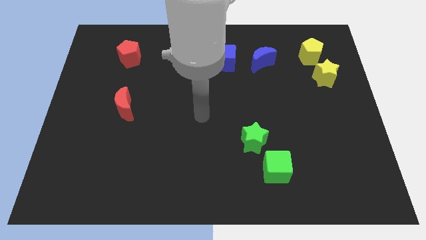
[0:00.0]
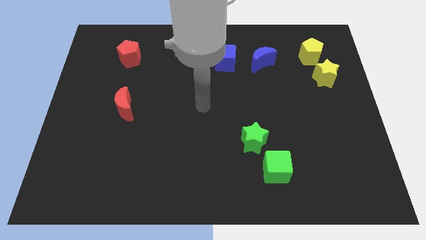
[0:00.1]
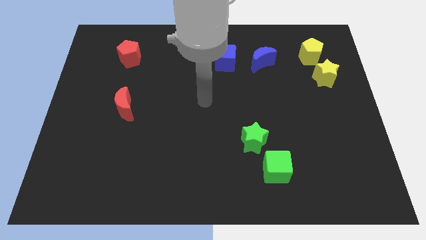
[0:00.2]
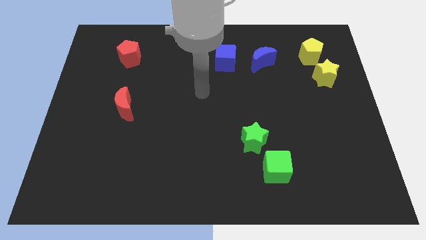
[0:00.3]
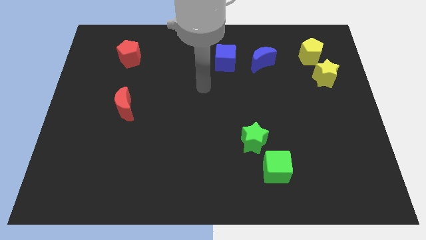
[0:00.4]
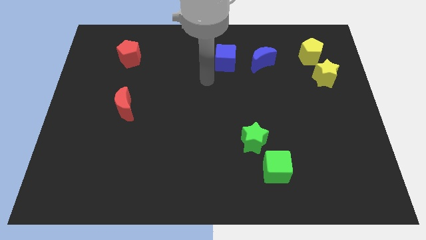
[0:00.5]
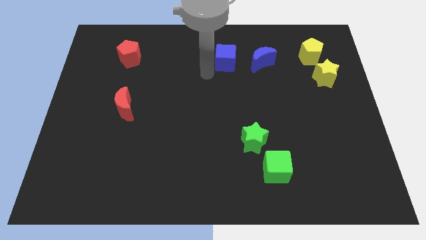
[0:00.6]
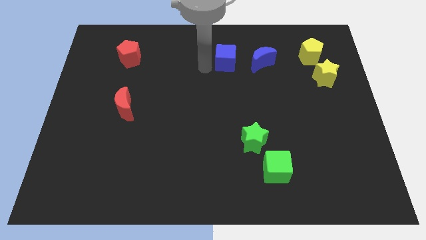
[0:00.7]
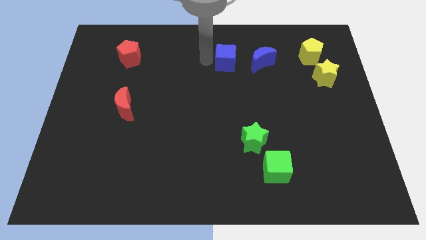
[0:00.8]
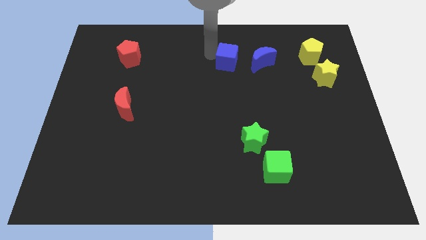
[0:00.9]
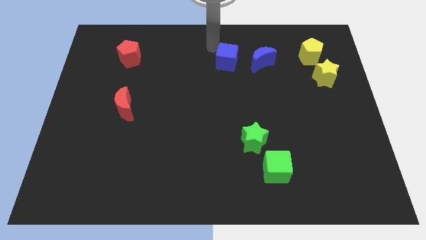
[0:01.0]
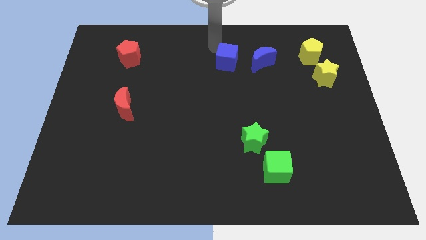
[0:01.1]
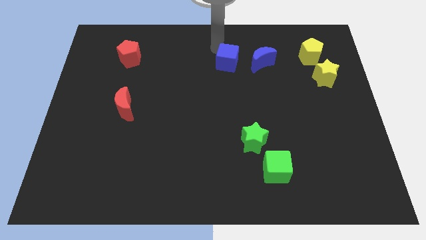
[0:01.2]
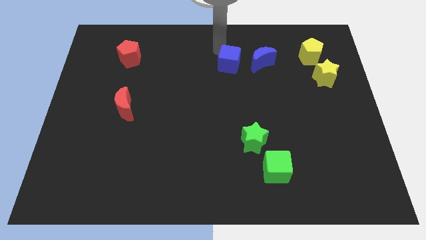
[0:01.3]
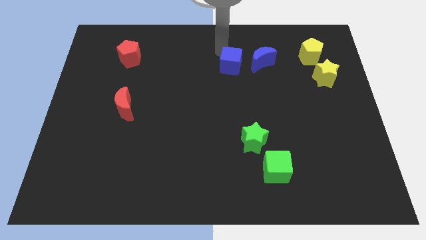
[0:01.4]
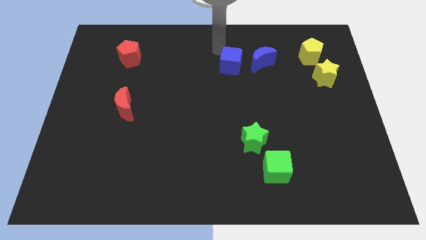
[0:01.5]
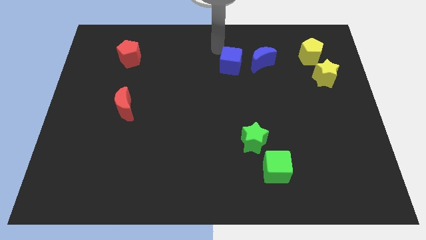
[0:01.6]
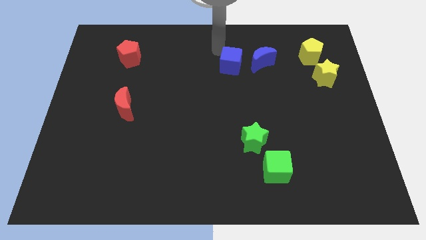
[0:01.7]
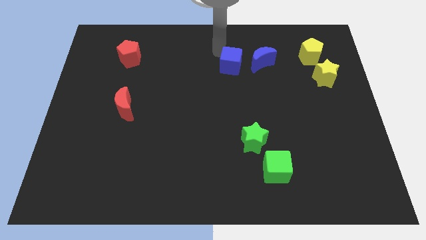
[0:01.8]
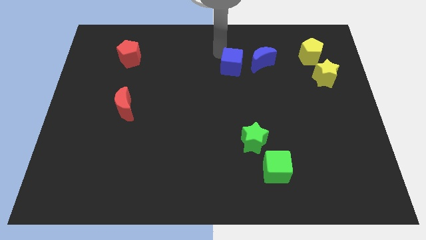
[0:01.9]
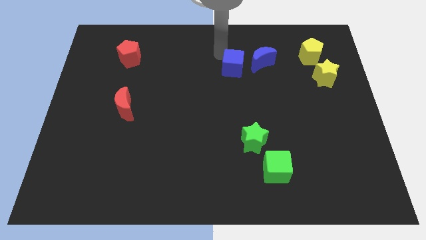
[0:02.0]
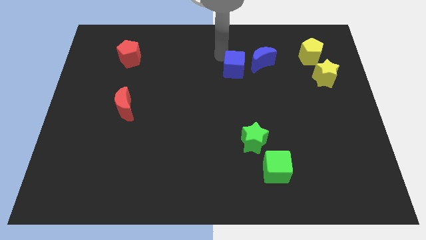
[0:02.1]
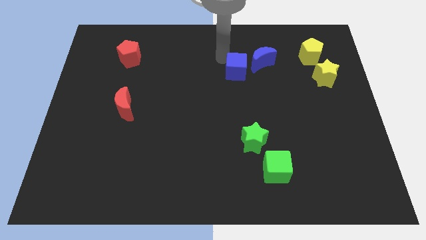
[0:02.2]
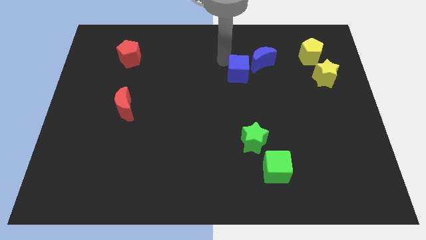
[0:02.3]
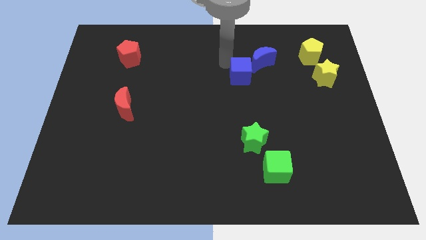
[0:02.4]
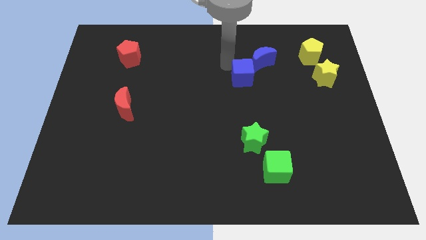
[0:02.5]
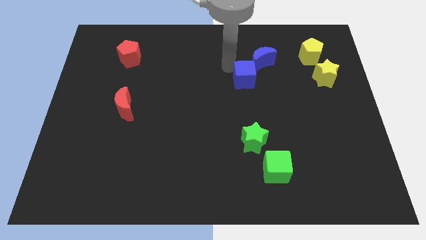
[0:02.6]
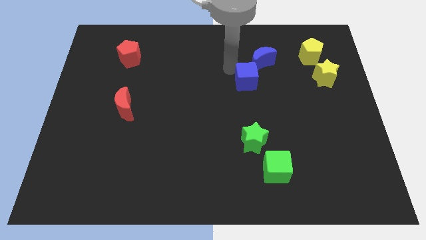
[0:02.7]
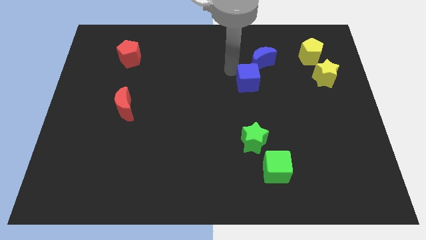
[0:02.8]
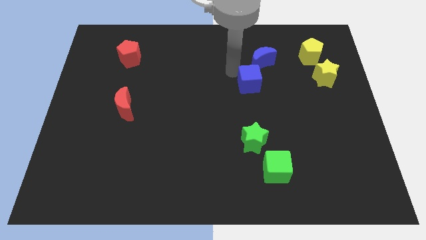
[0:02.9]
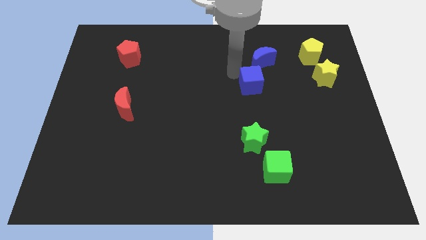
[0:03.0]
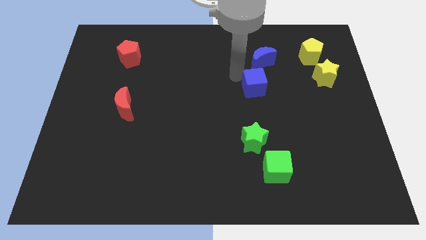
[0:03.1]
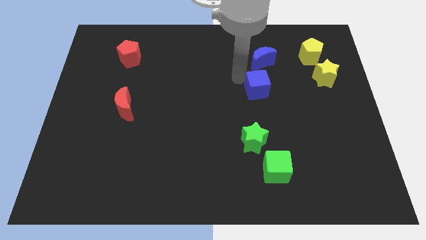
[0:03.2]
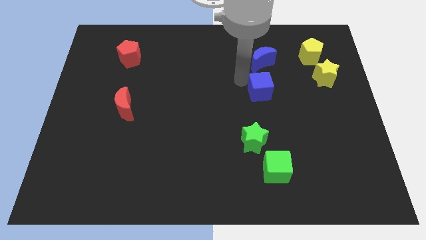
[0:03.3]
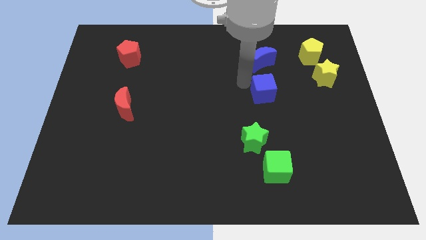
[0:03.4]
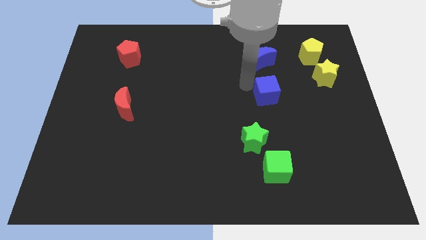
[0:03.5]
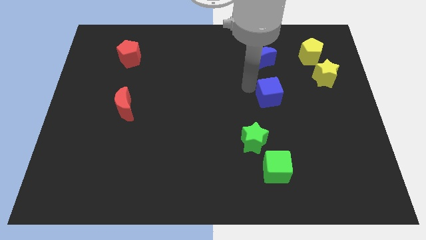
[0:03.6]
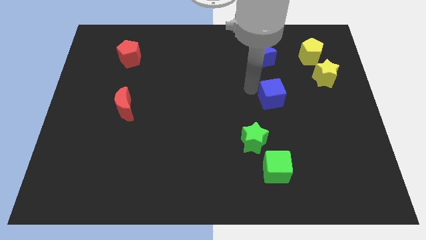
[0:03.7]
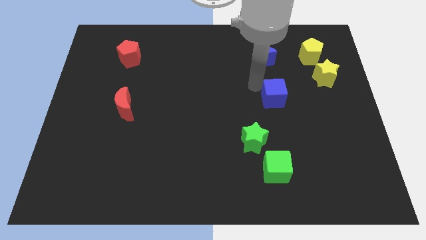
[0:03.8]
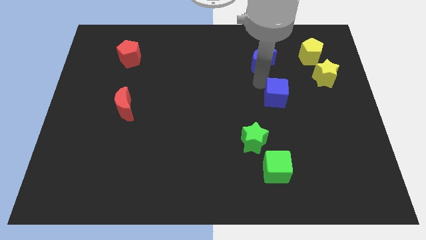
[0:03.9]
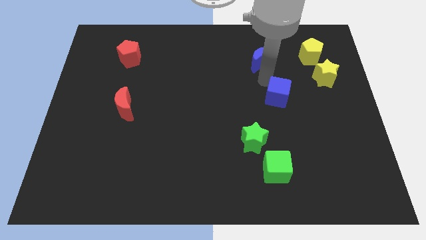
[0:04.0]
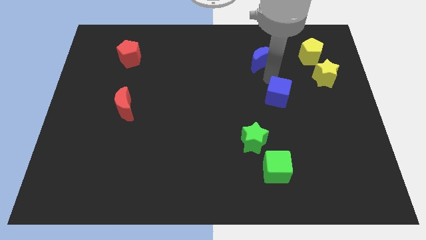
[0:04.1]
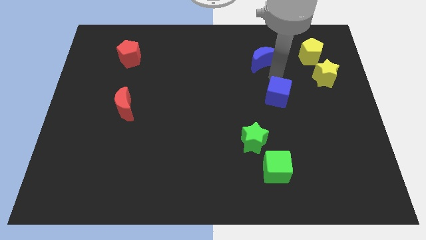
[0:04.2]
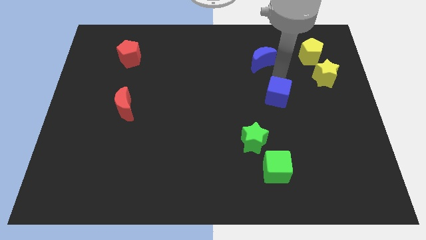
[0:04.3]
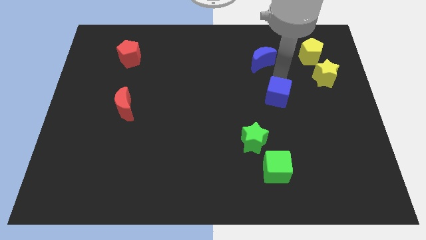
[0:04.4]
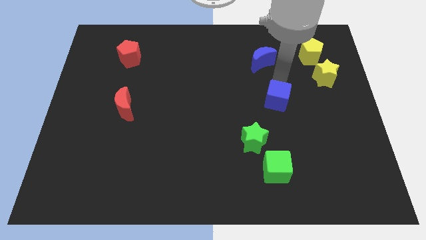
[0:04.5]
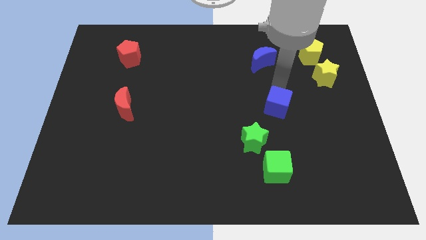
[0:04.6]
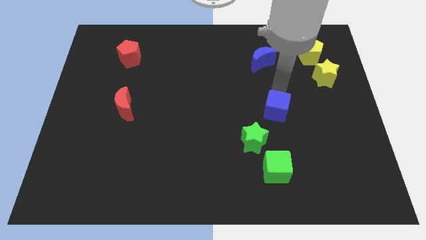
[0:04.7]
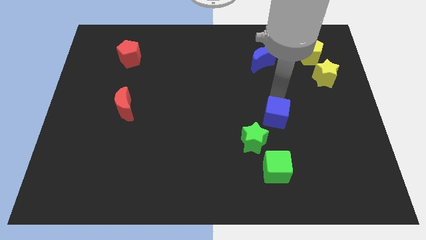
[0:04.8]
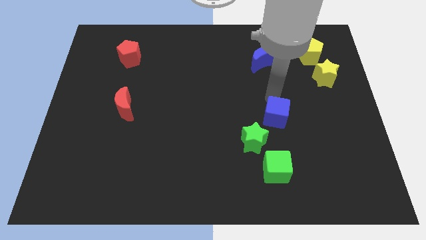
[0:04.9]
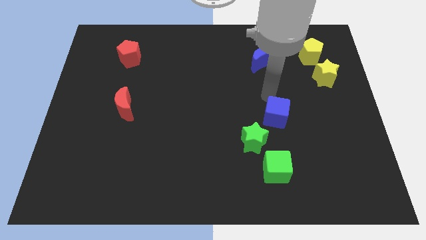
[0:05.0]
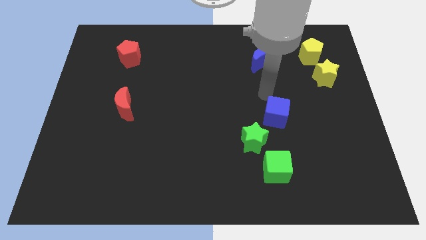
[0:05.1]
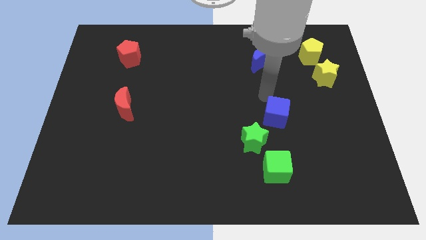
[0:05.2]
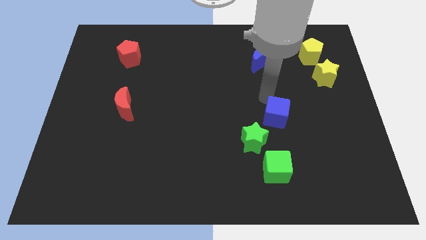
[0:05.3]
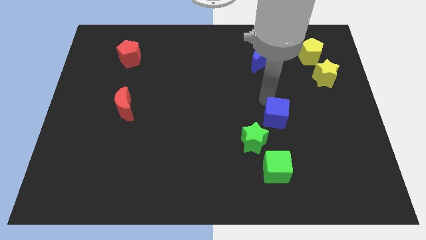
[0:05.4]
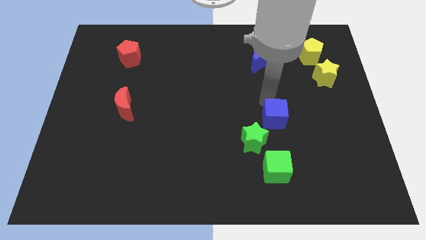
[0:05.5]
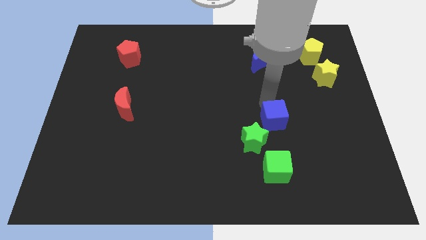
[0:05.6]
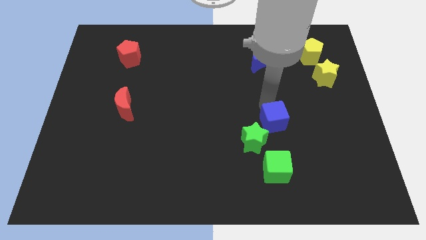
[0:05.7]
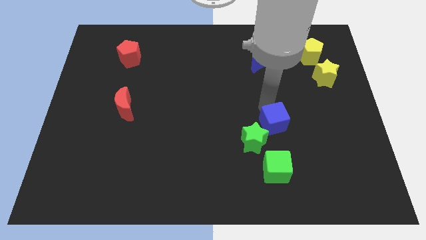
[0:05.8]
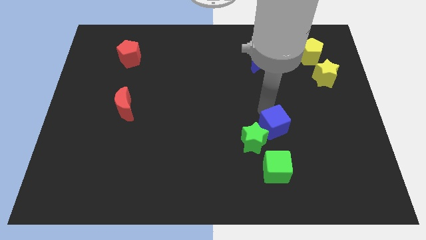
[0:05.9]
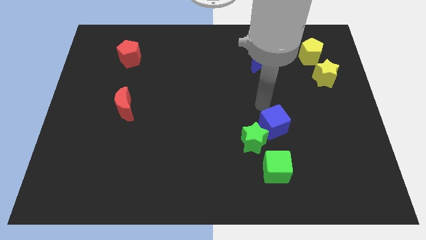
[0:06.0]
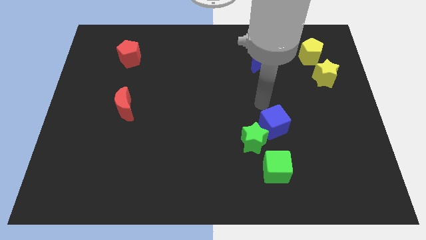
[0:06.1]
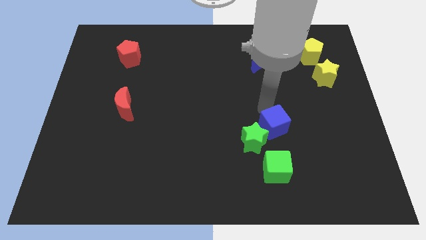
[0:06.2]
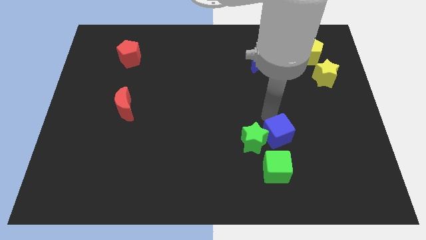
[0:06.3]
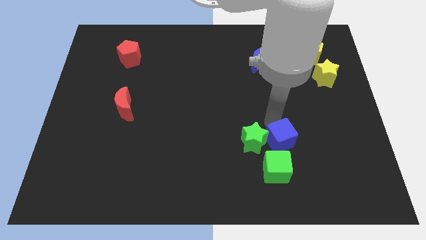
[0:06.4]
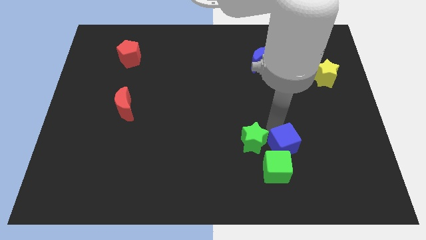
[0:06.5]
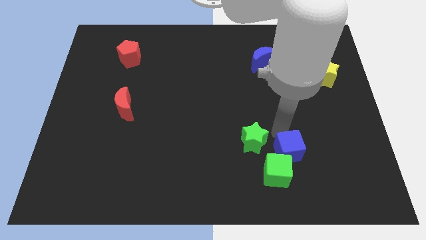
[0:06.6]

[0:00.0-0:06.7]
push the blue cube close to the green cube
